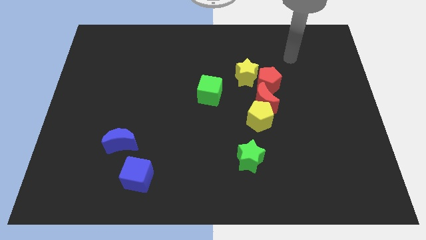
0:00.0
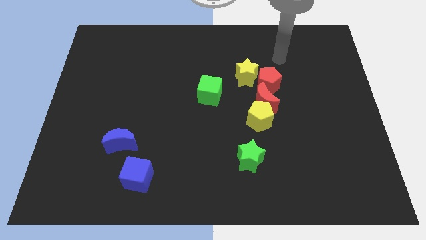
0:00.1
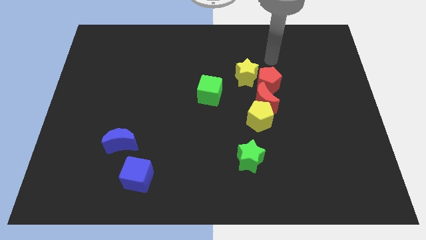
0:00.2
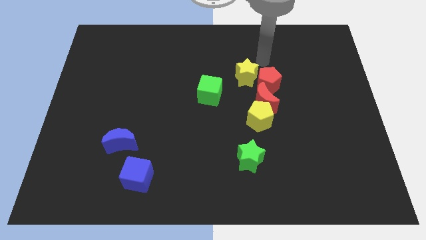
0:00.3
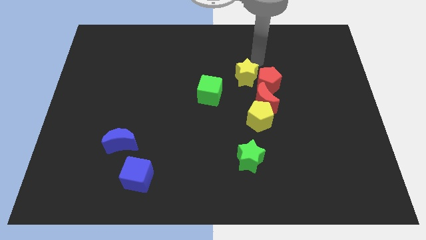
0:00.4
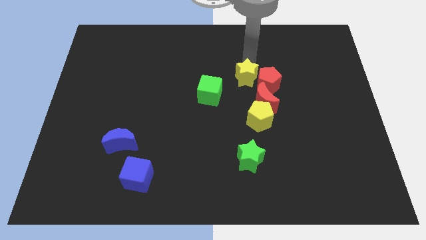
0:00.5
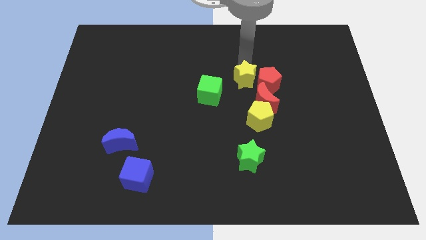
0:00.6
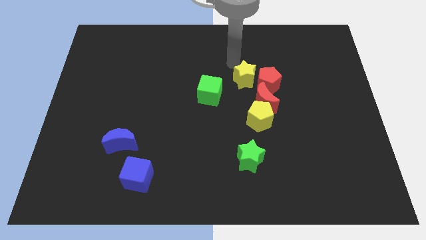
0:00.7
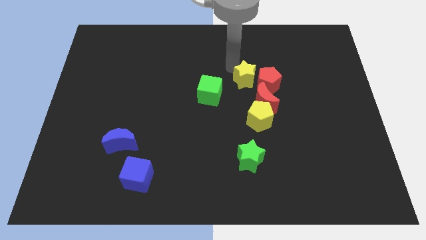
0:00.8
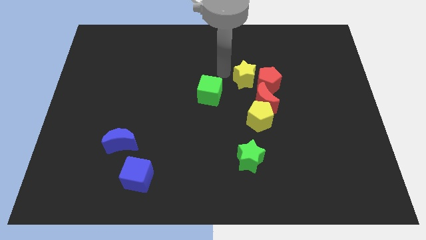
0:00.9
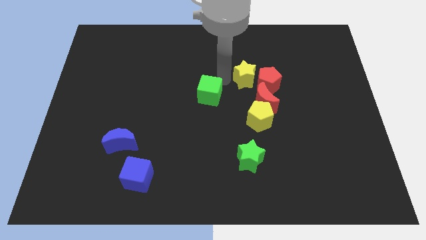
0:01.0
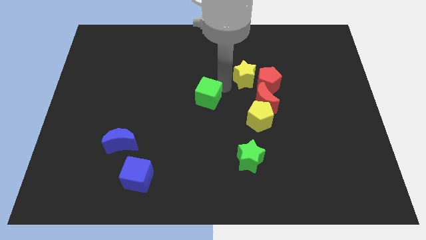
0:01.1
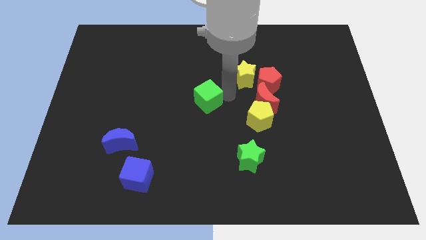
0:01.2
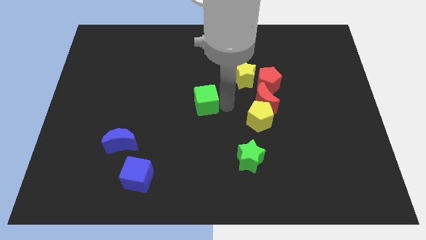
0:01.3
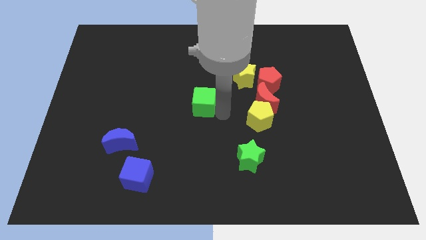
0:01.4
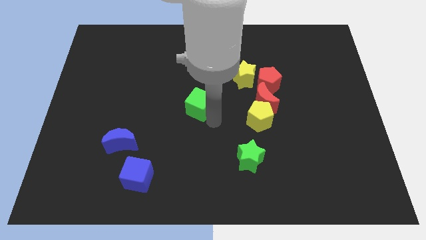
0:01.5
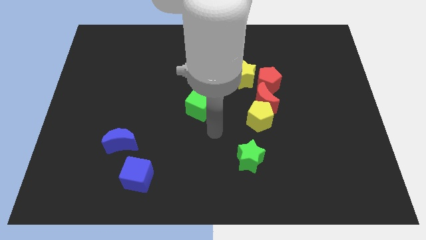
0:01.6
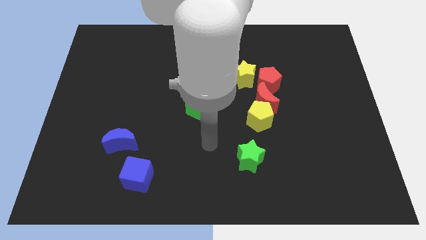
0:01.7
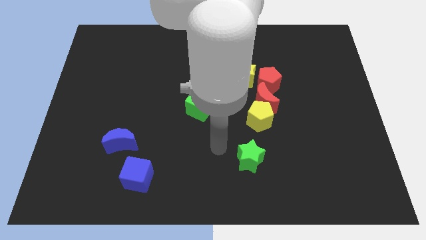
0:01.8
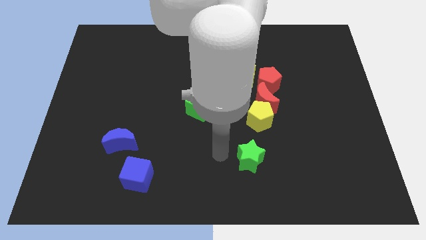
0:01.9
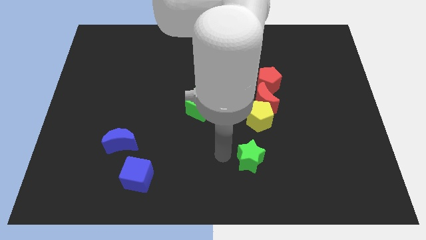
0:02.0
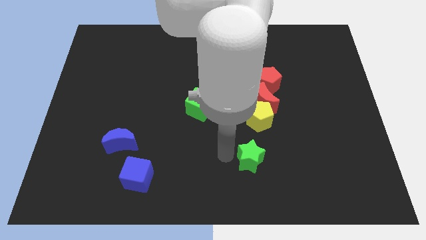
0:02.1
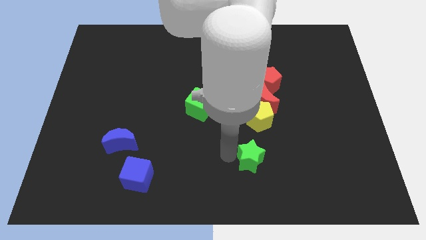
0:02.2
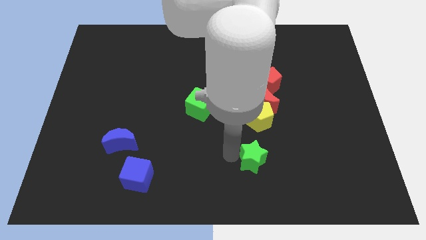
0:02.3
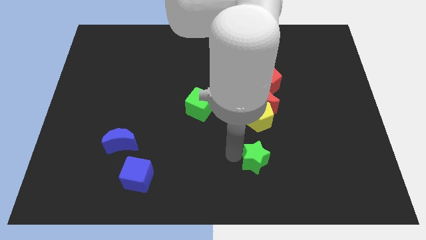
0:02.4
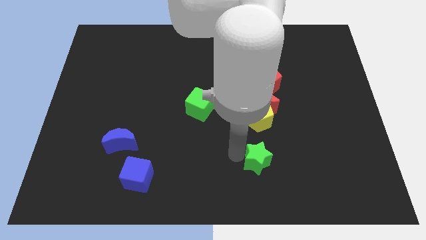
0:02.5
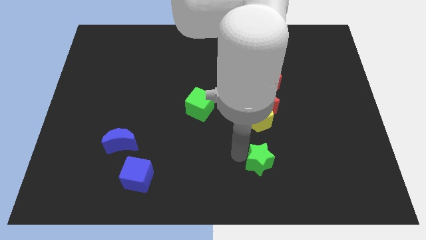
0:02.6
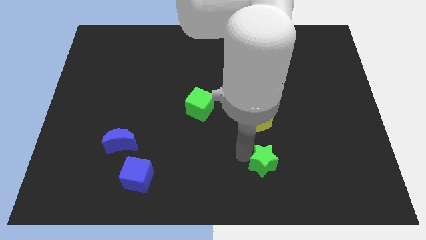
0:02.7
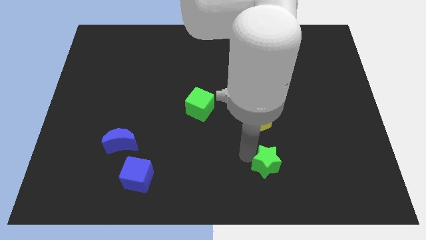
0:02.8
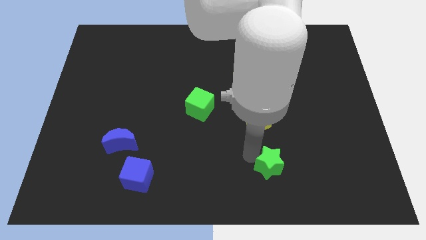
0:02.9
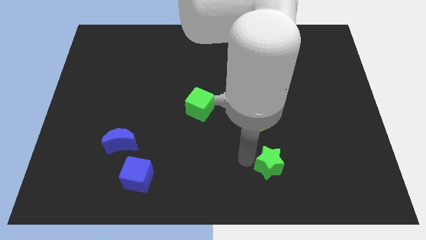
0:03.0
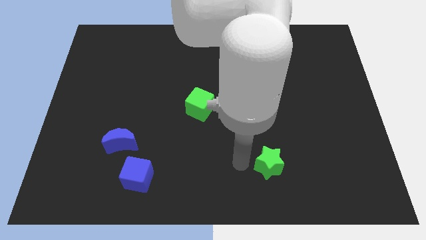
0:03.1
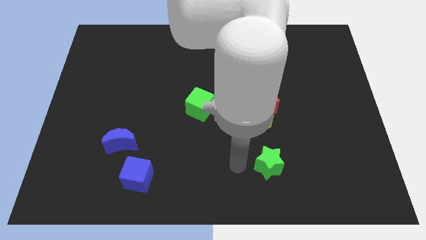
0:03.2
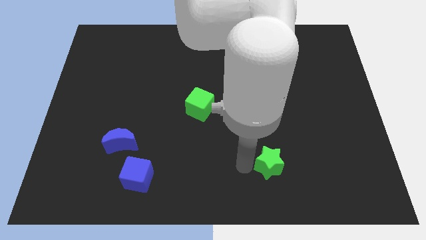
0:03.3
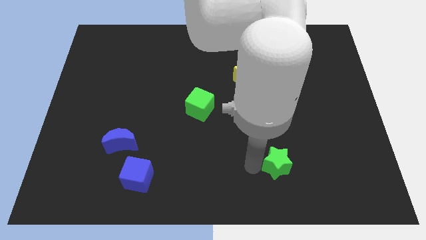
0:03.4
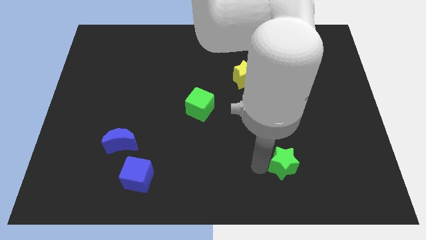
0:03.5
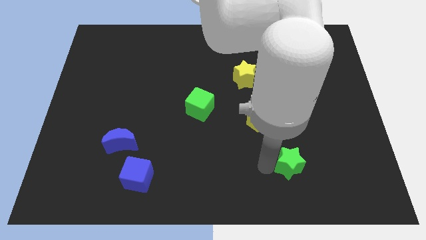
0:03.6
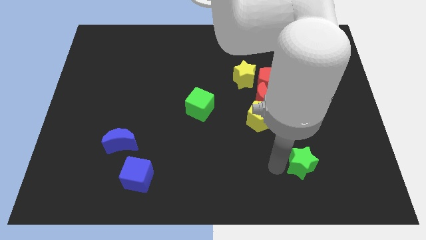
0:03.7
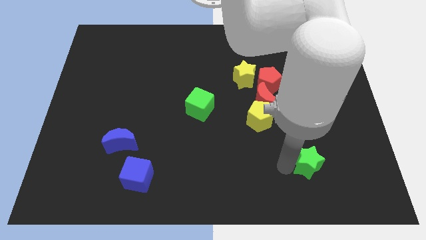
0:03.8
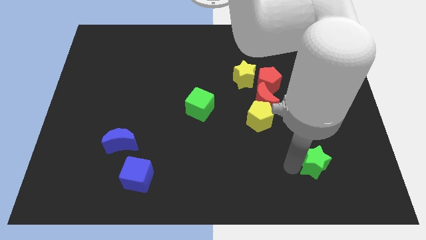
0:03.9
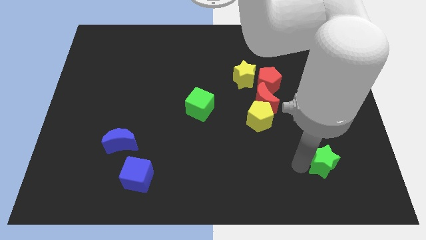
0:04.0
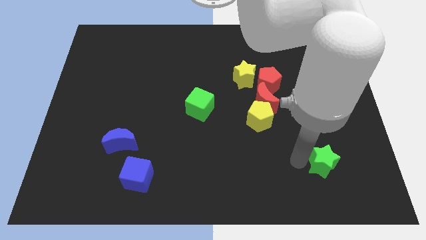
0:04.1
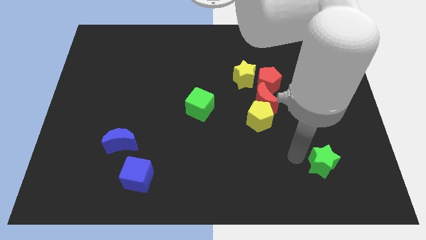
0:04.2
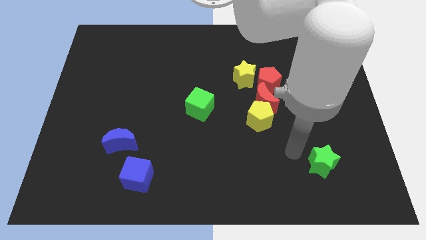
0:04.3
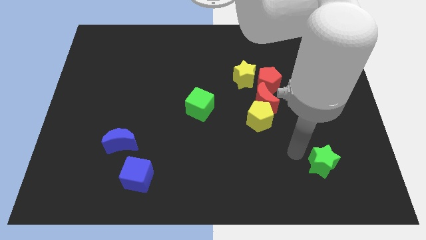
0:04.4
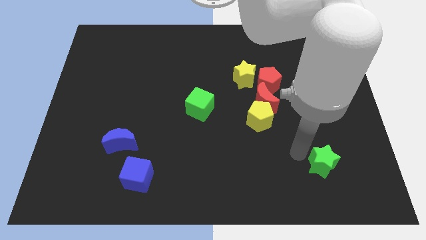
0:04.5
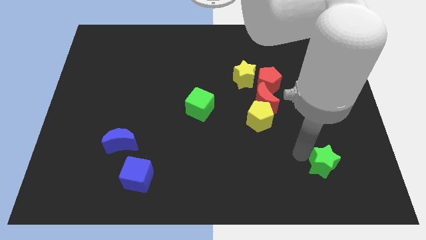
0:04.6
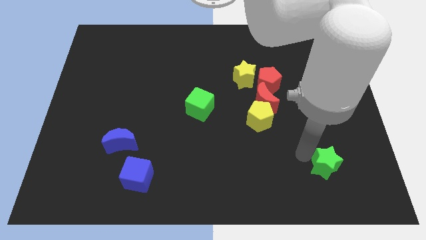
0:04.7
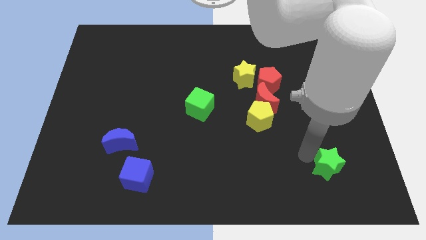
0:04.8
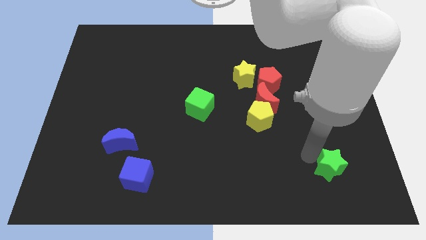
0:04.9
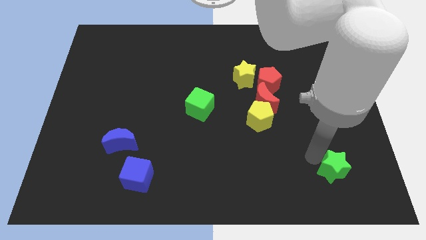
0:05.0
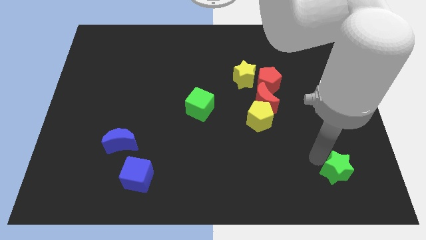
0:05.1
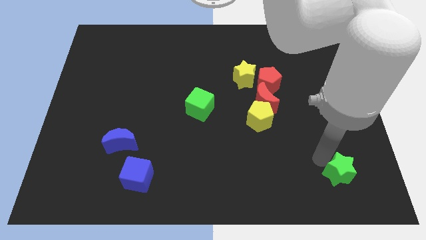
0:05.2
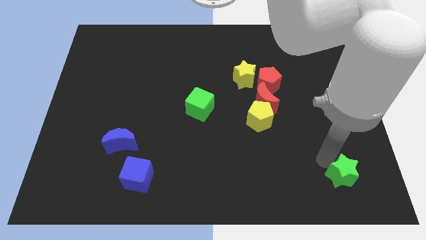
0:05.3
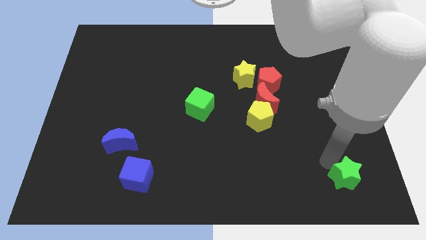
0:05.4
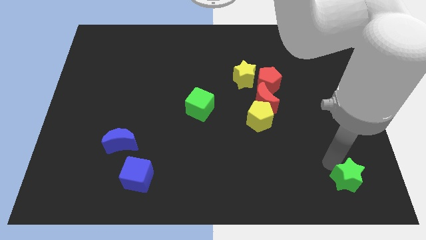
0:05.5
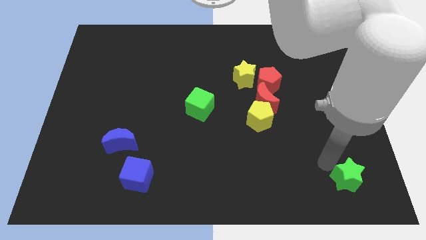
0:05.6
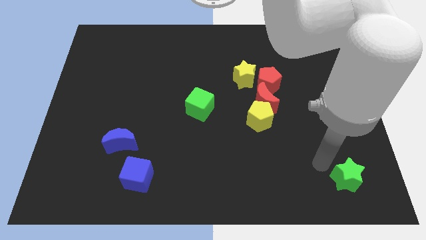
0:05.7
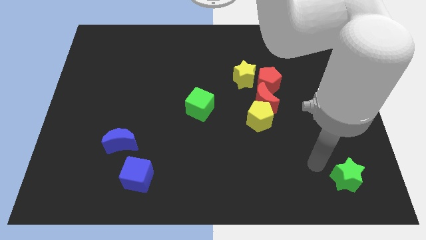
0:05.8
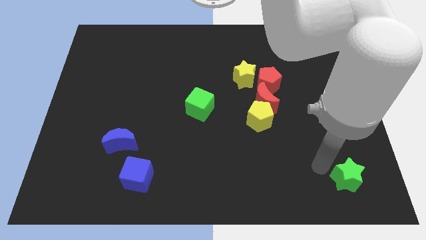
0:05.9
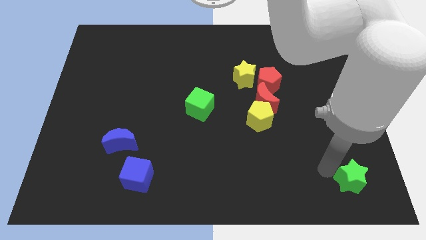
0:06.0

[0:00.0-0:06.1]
put the green star to the bottom right of the board

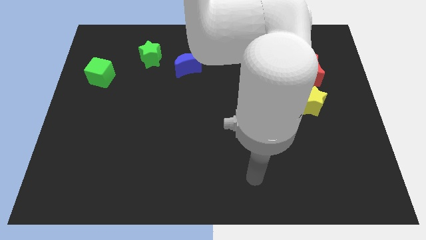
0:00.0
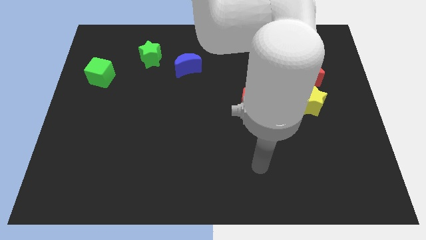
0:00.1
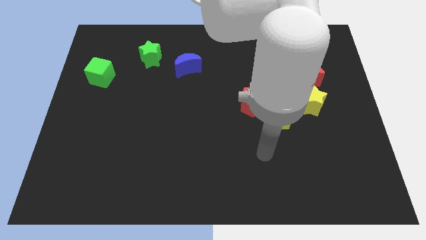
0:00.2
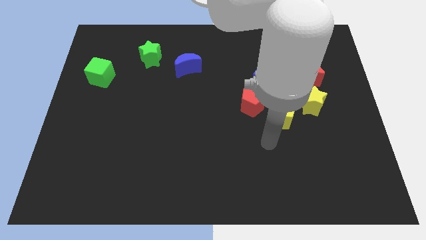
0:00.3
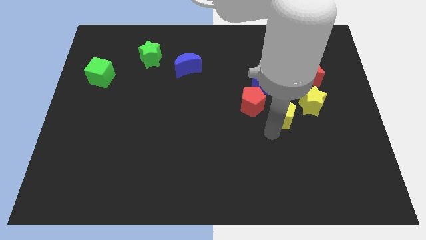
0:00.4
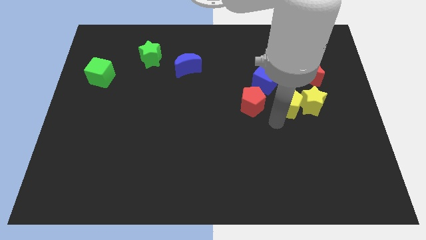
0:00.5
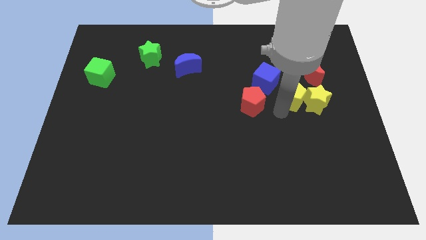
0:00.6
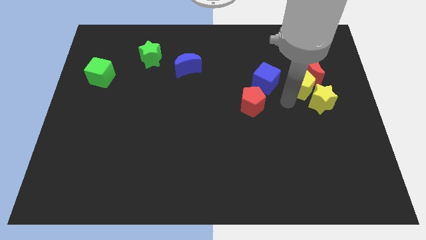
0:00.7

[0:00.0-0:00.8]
put the yellow star to the right side of the board
